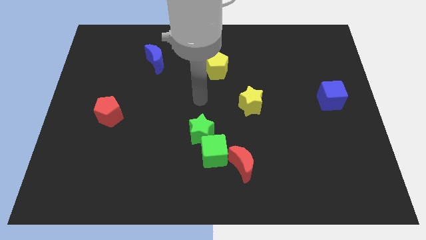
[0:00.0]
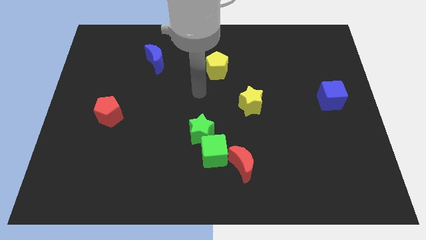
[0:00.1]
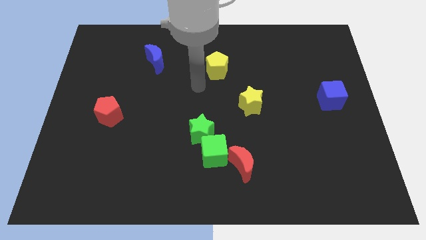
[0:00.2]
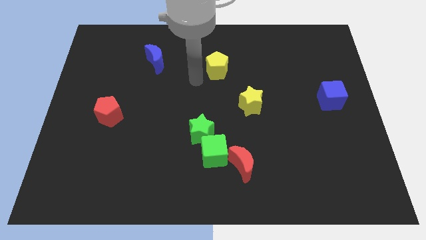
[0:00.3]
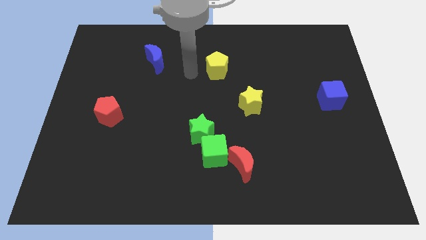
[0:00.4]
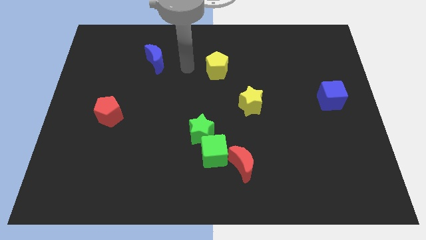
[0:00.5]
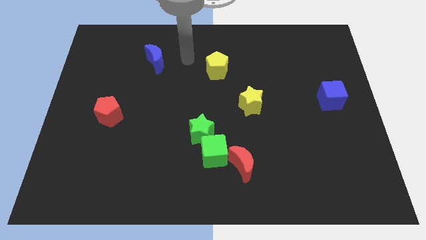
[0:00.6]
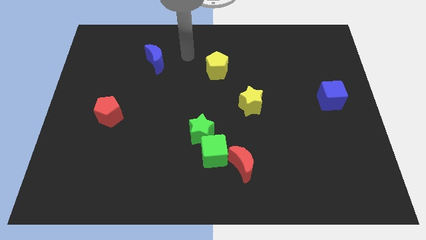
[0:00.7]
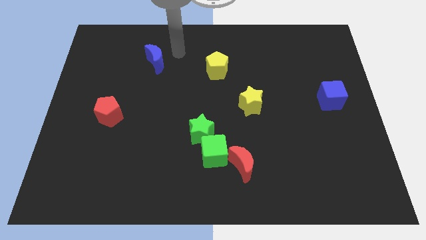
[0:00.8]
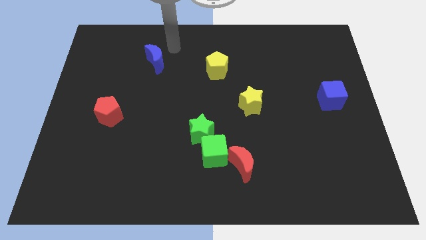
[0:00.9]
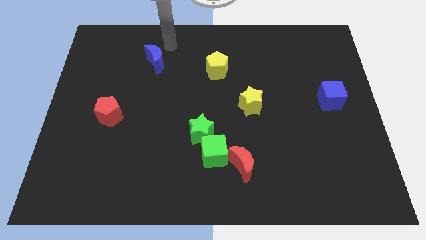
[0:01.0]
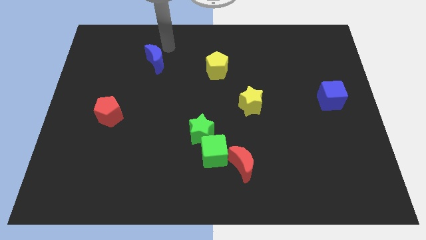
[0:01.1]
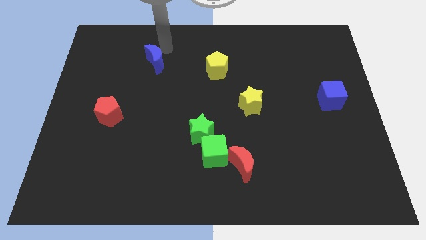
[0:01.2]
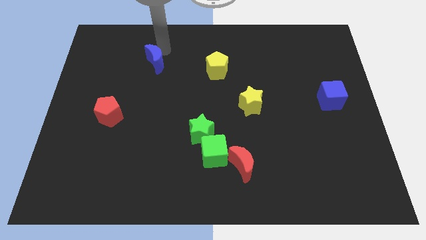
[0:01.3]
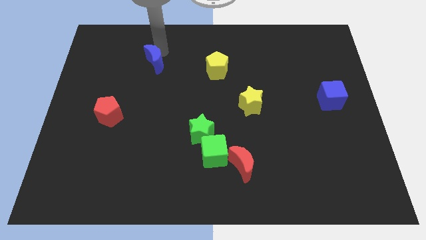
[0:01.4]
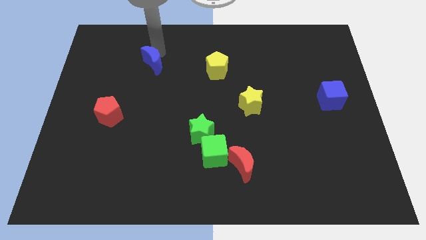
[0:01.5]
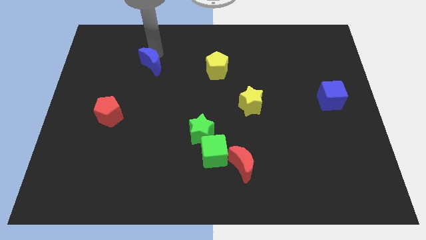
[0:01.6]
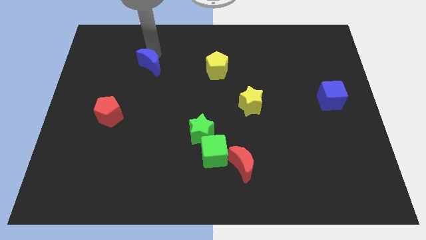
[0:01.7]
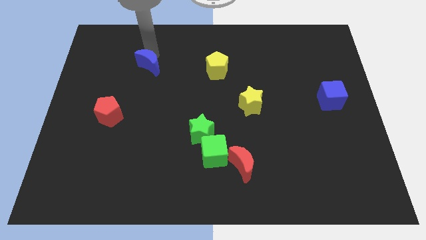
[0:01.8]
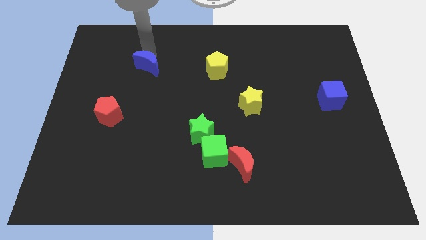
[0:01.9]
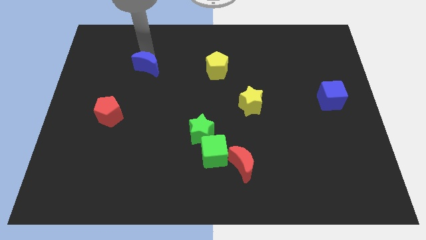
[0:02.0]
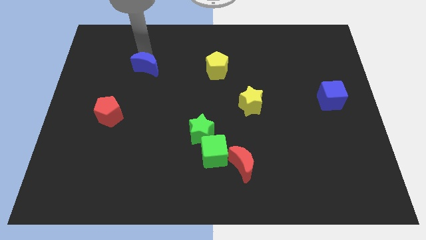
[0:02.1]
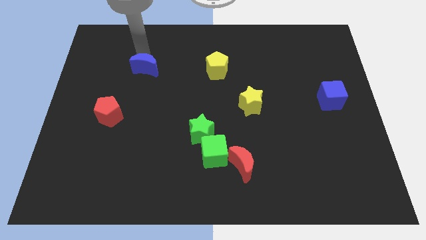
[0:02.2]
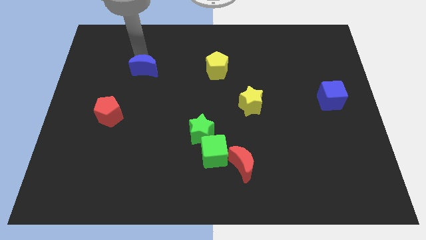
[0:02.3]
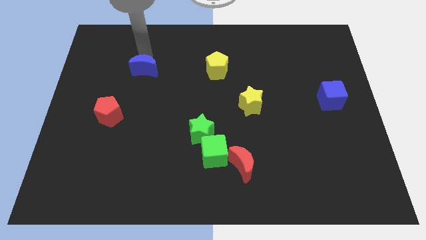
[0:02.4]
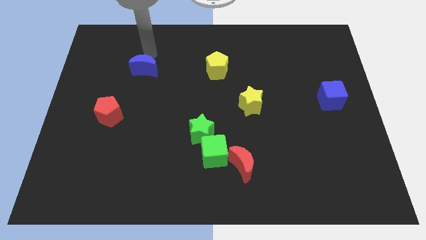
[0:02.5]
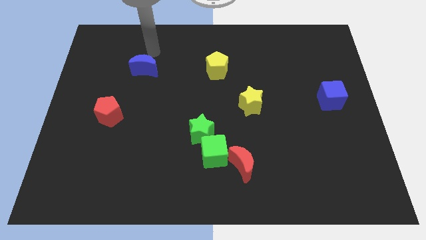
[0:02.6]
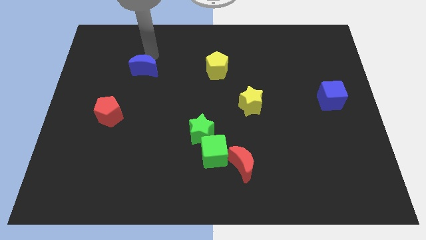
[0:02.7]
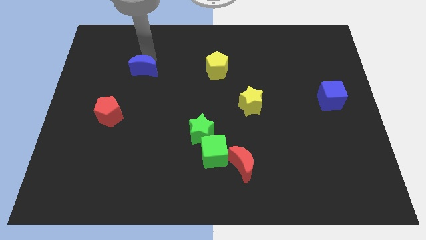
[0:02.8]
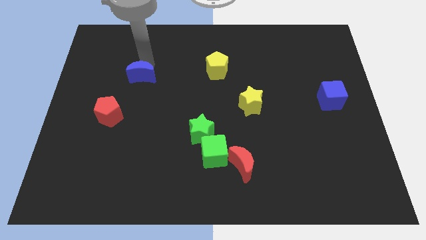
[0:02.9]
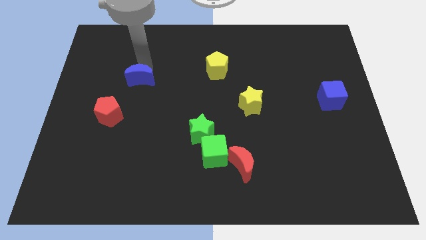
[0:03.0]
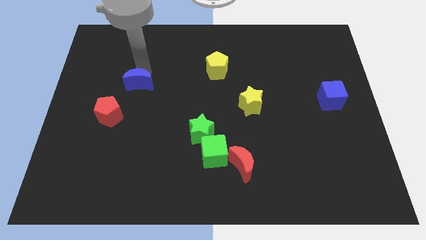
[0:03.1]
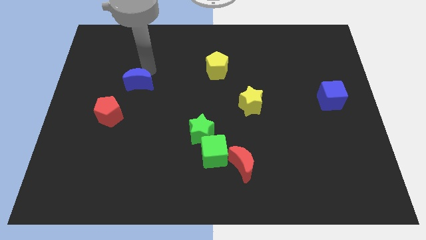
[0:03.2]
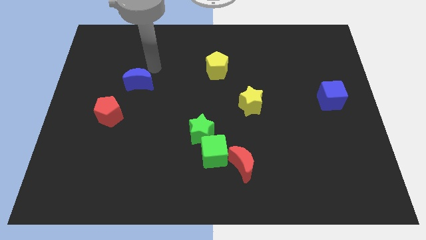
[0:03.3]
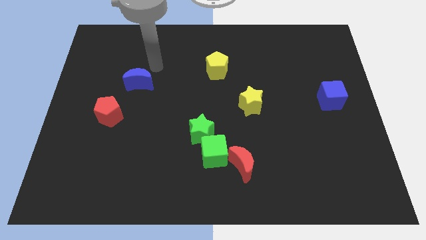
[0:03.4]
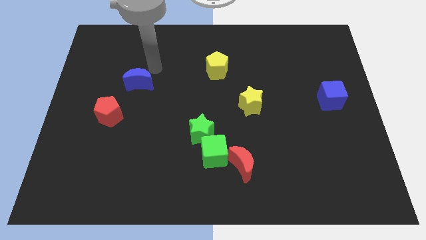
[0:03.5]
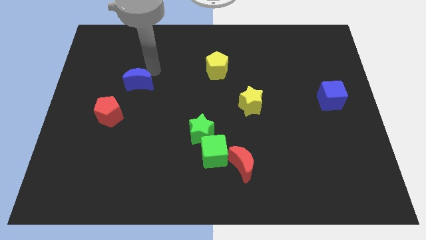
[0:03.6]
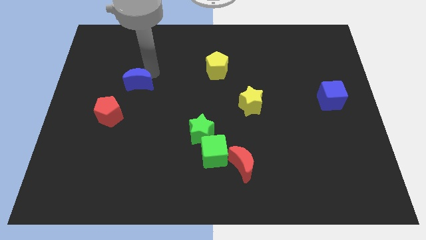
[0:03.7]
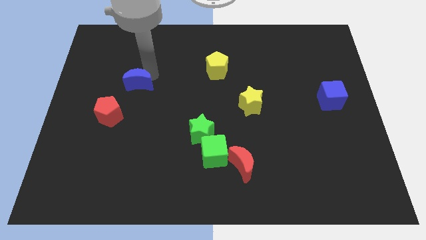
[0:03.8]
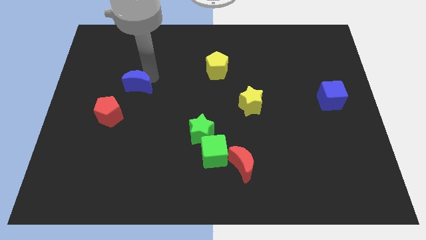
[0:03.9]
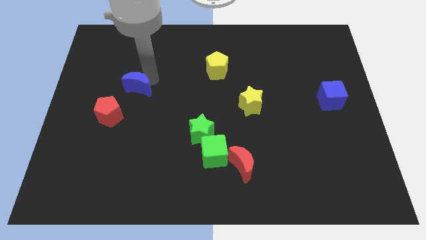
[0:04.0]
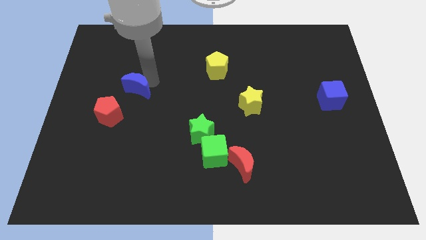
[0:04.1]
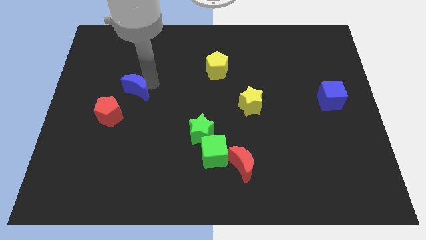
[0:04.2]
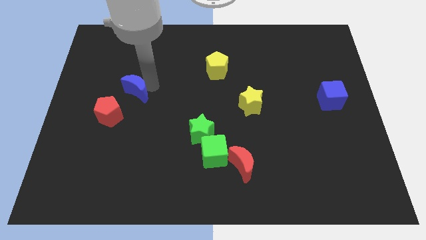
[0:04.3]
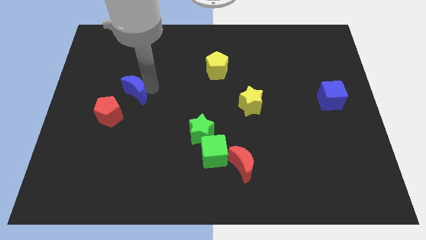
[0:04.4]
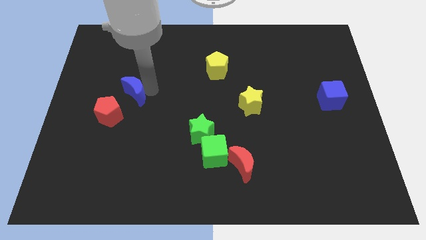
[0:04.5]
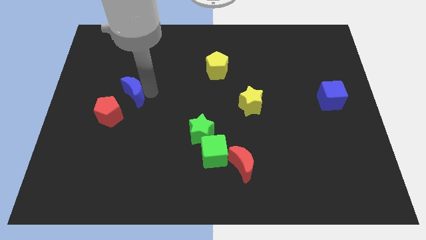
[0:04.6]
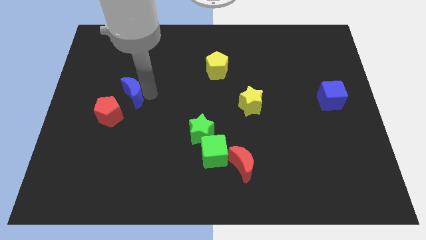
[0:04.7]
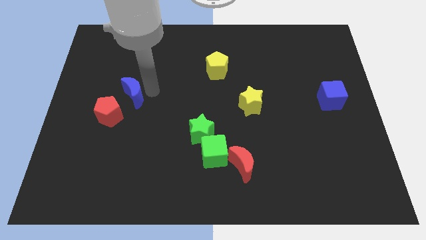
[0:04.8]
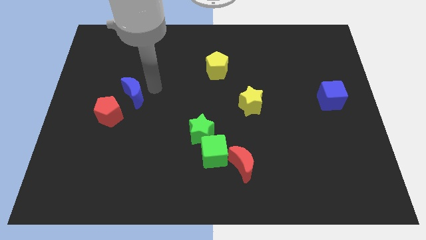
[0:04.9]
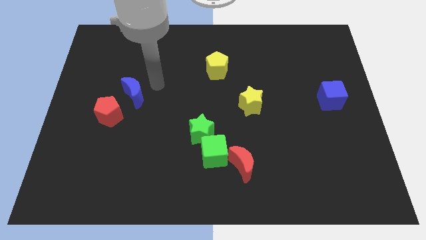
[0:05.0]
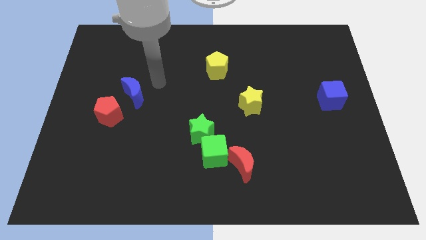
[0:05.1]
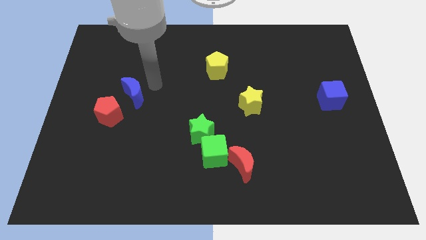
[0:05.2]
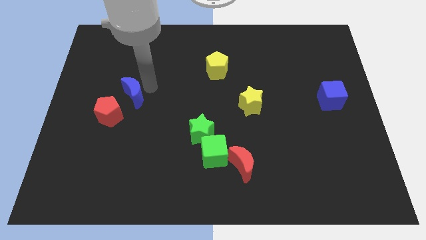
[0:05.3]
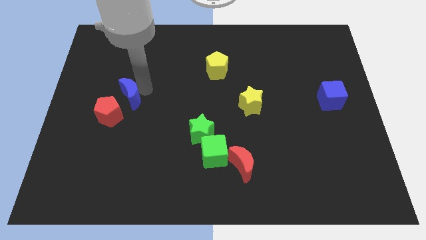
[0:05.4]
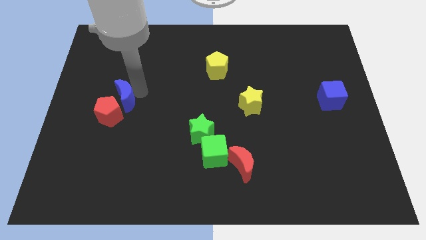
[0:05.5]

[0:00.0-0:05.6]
put the blue moon close to the red pentagon

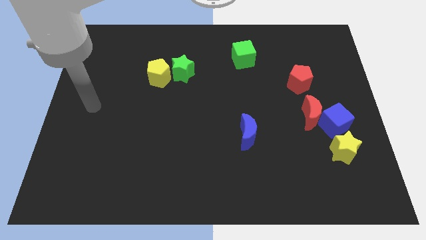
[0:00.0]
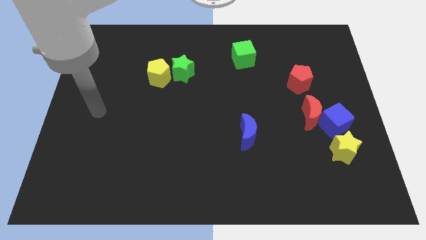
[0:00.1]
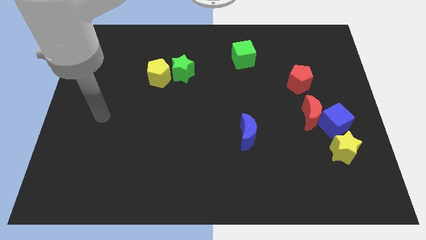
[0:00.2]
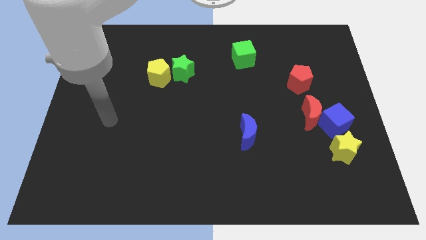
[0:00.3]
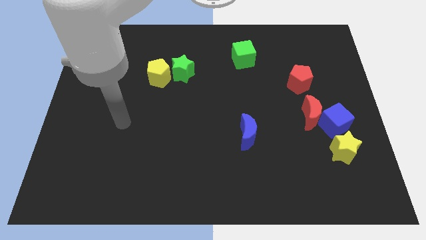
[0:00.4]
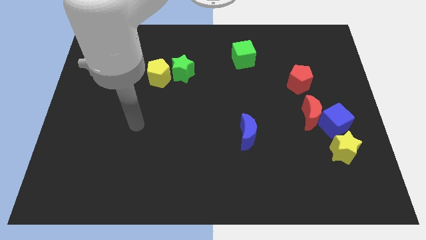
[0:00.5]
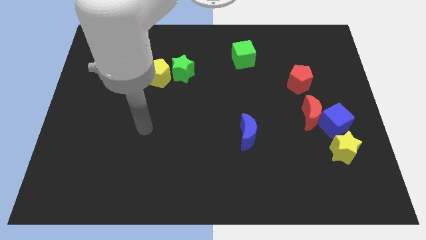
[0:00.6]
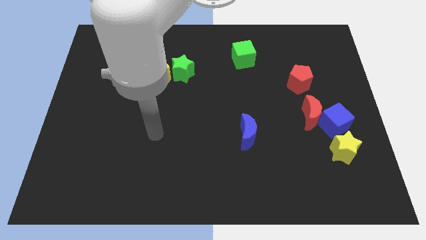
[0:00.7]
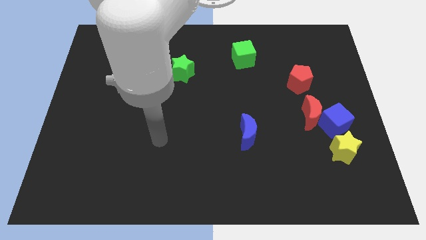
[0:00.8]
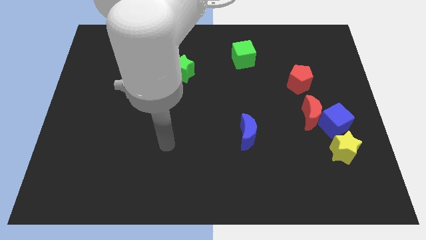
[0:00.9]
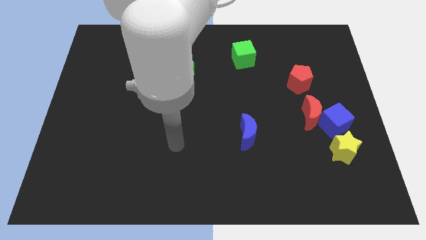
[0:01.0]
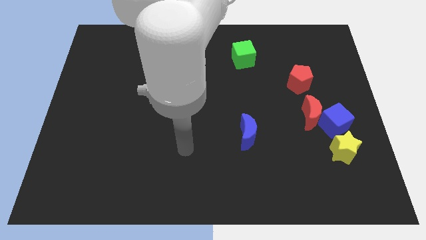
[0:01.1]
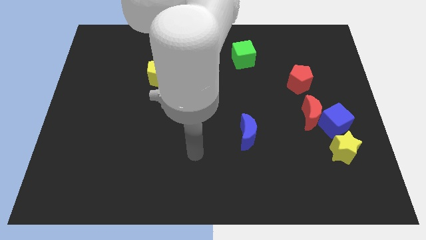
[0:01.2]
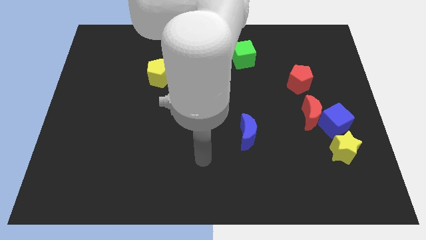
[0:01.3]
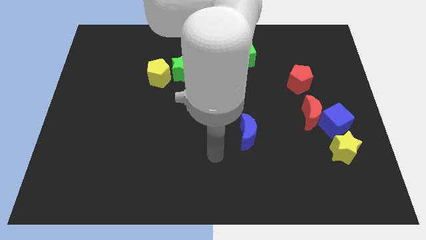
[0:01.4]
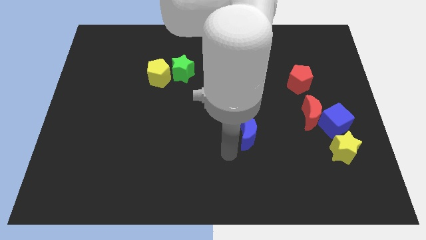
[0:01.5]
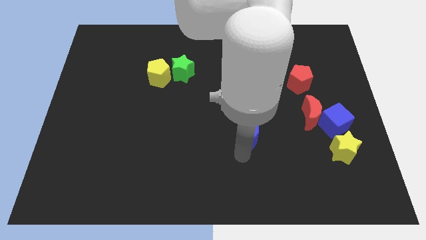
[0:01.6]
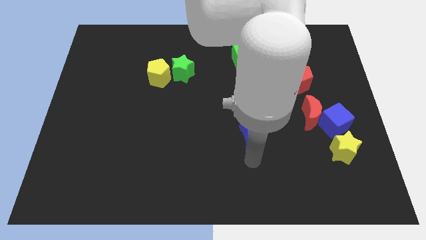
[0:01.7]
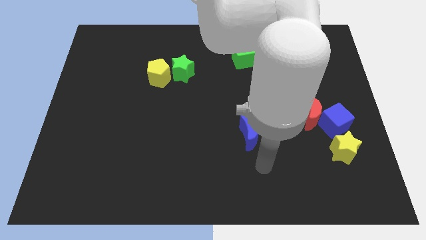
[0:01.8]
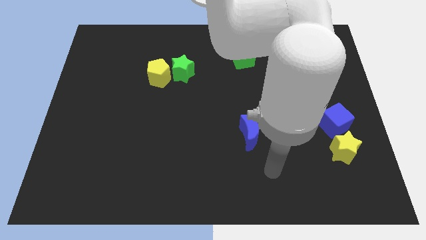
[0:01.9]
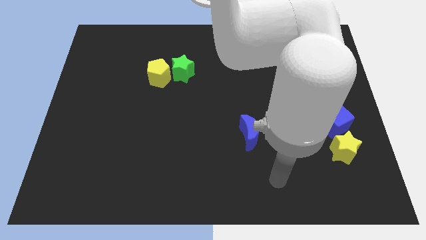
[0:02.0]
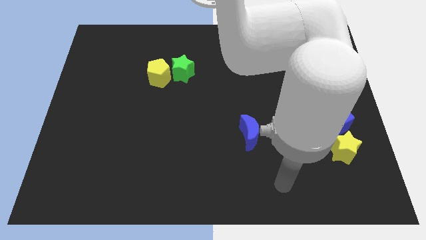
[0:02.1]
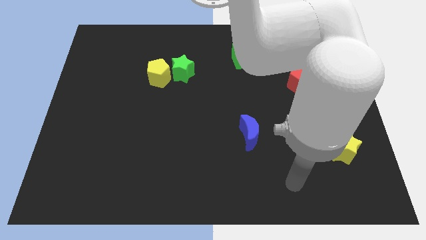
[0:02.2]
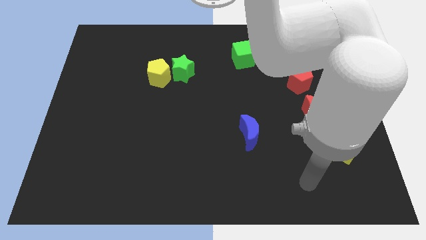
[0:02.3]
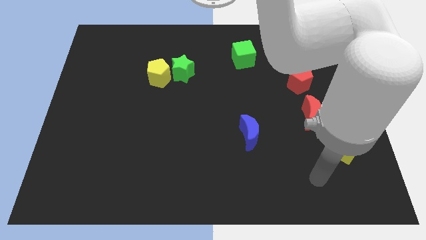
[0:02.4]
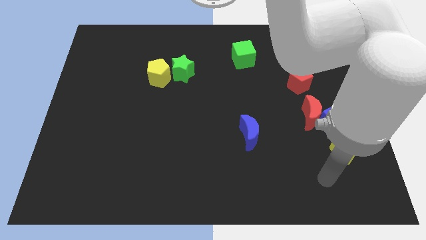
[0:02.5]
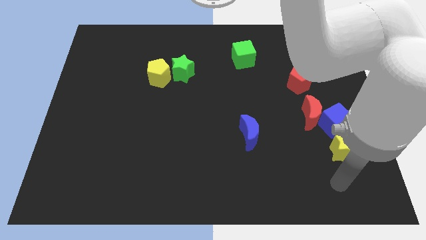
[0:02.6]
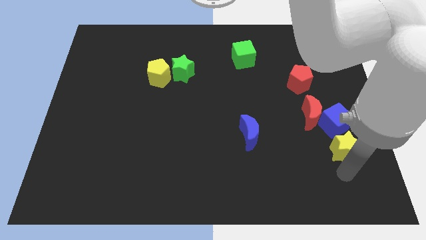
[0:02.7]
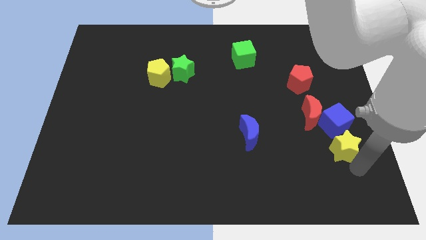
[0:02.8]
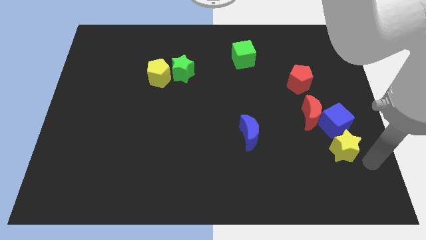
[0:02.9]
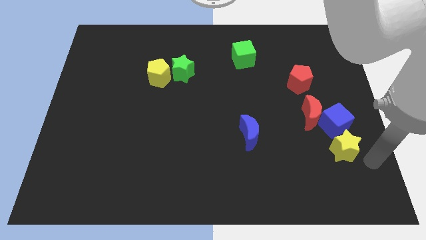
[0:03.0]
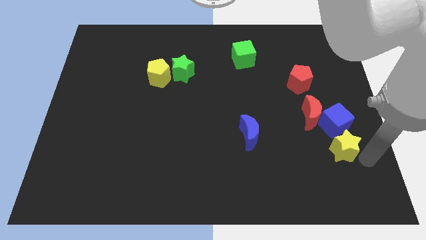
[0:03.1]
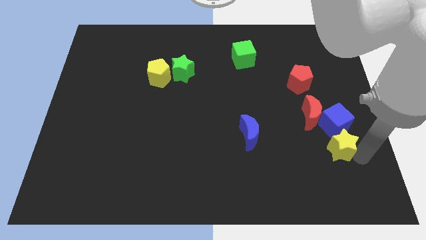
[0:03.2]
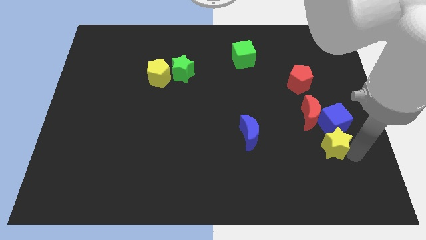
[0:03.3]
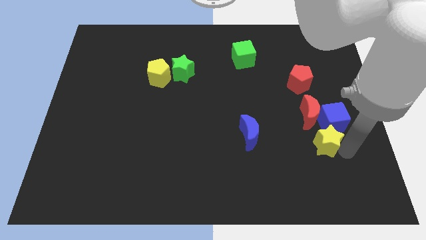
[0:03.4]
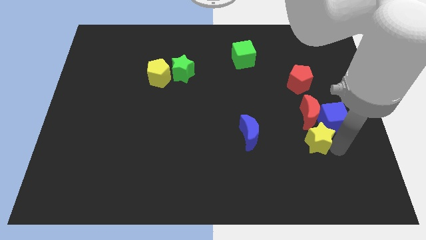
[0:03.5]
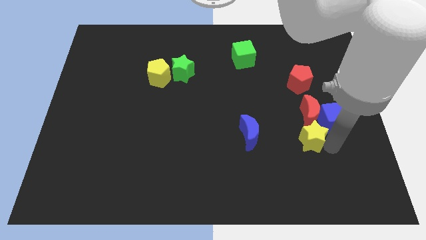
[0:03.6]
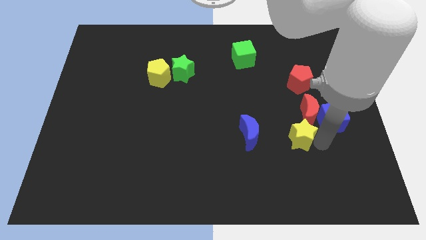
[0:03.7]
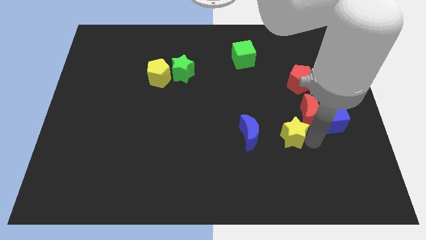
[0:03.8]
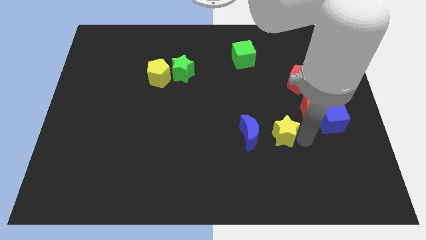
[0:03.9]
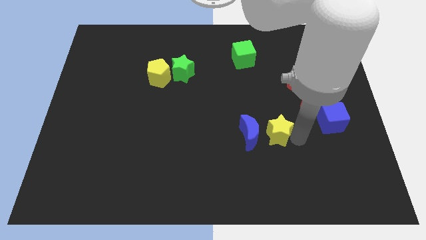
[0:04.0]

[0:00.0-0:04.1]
push the yellow star next to the blue moon
